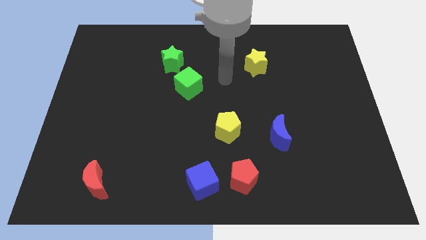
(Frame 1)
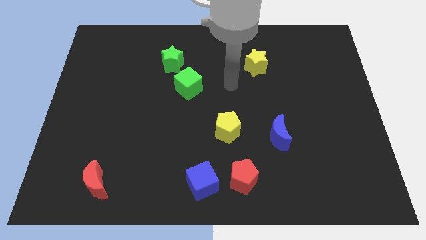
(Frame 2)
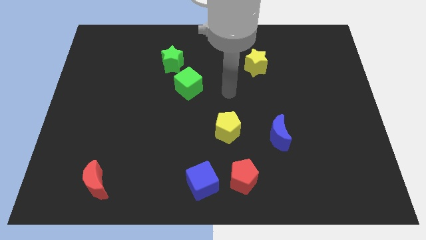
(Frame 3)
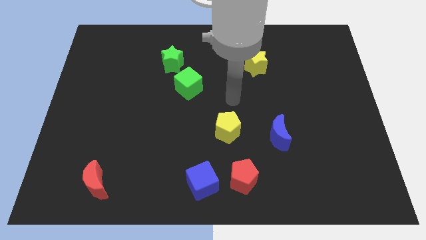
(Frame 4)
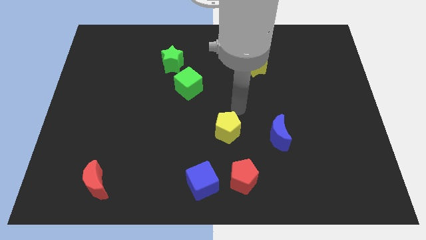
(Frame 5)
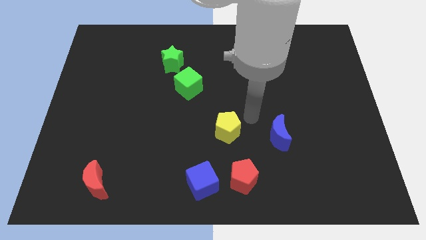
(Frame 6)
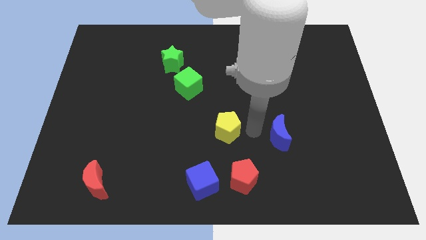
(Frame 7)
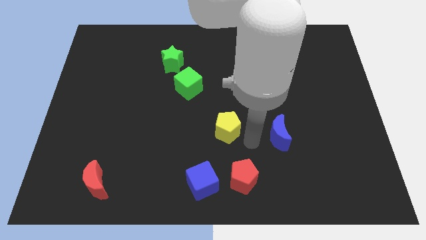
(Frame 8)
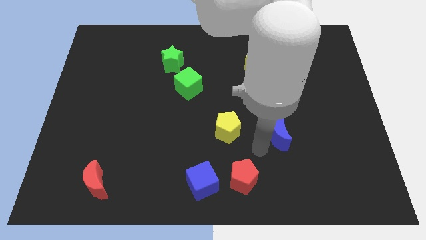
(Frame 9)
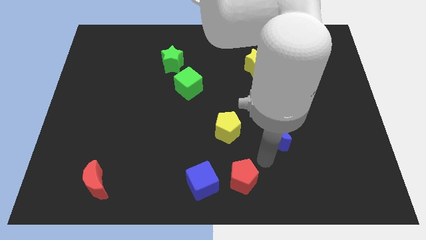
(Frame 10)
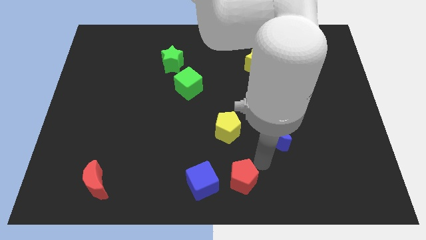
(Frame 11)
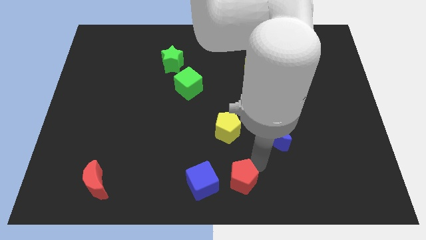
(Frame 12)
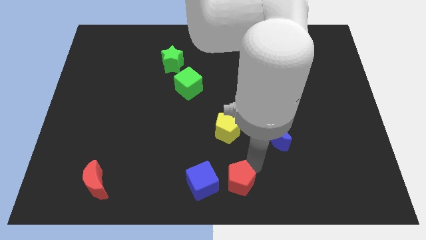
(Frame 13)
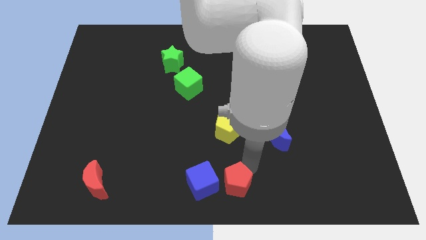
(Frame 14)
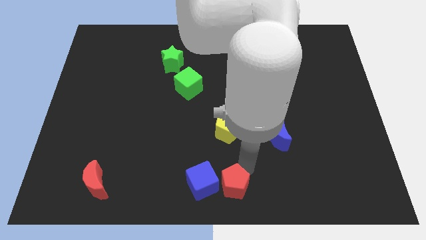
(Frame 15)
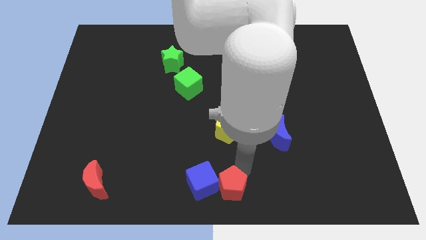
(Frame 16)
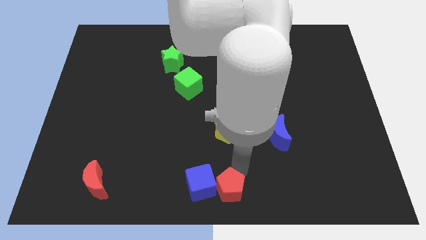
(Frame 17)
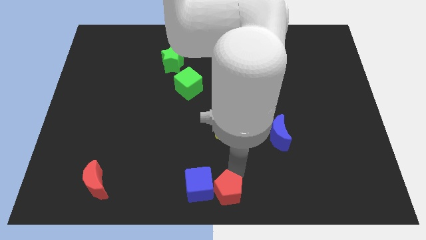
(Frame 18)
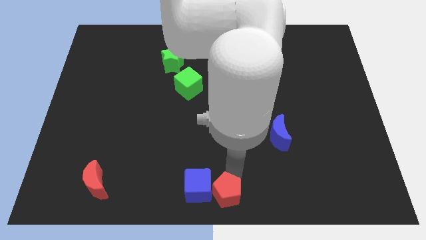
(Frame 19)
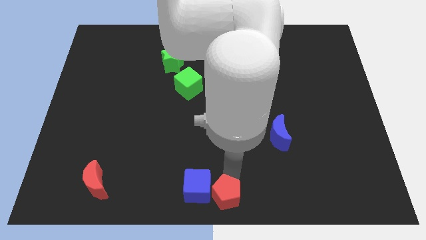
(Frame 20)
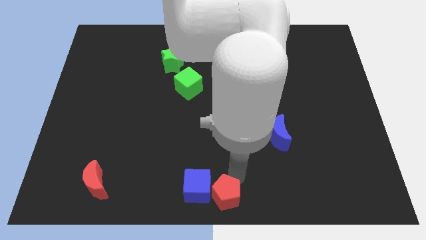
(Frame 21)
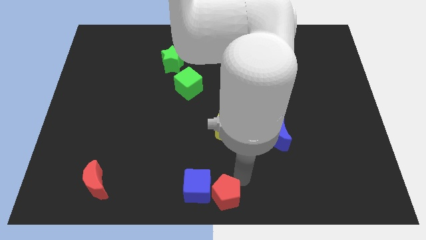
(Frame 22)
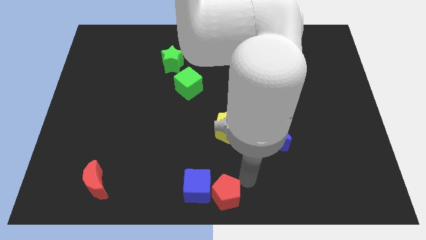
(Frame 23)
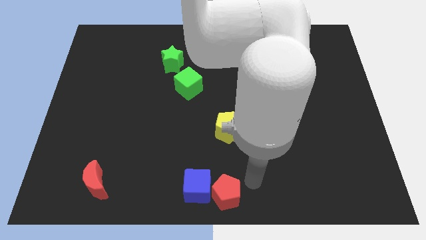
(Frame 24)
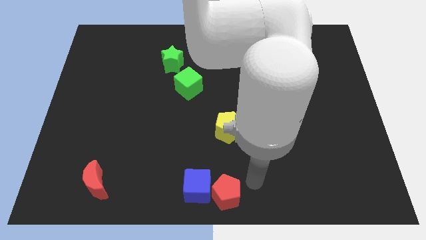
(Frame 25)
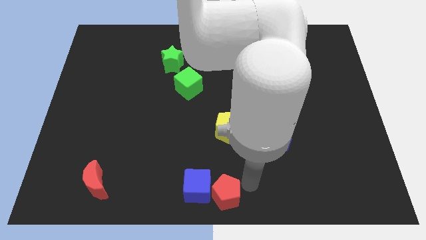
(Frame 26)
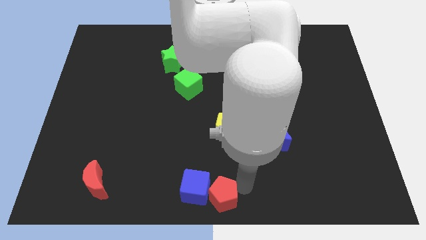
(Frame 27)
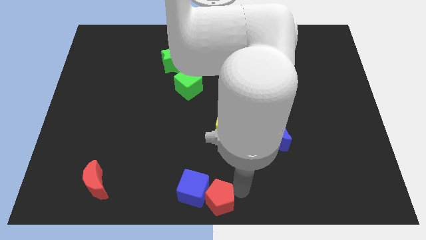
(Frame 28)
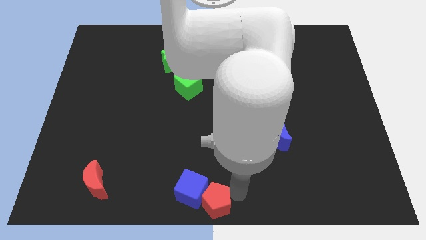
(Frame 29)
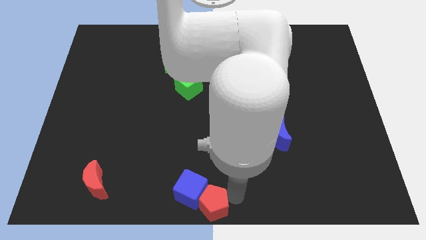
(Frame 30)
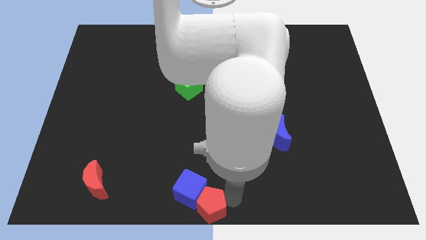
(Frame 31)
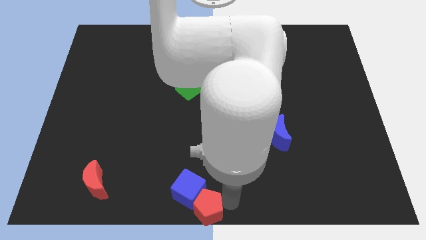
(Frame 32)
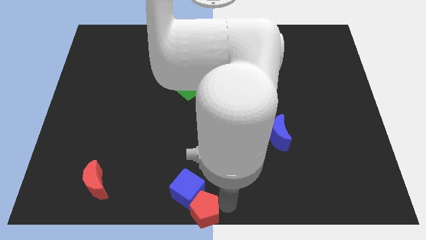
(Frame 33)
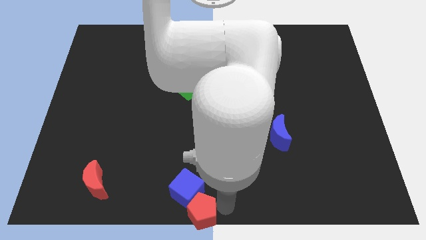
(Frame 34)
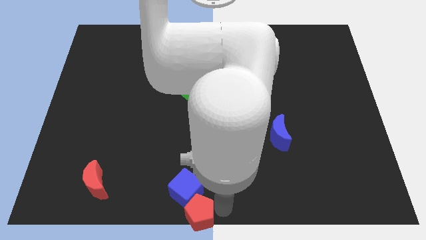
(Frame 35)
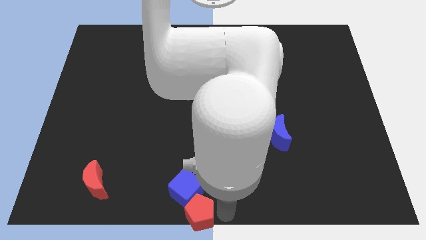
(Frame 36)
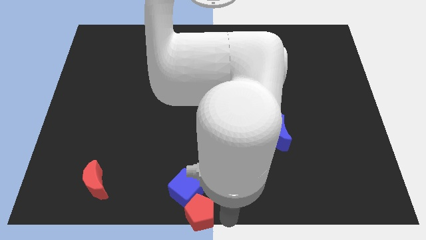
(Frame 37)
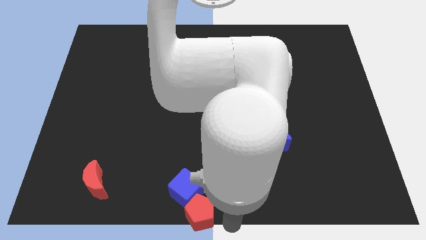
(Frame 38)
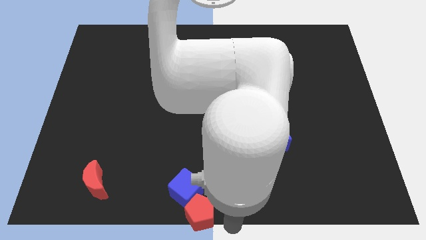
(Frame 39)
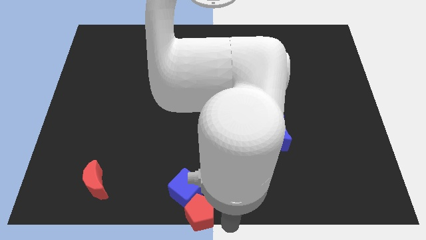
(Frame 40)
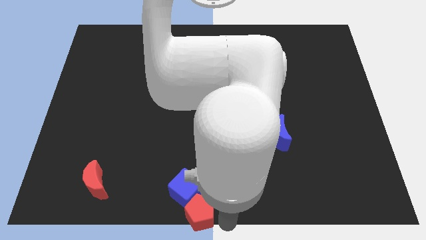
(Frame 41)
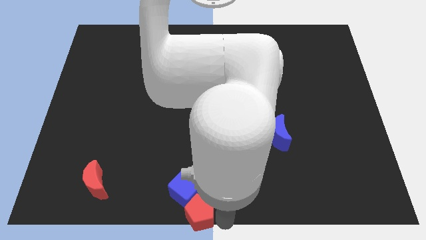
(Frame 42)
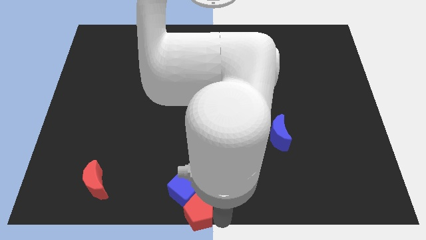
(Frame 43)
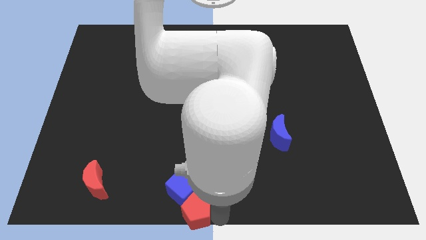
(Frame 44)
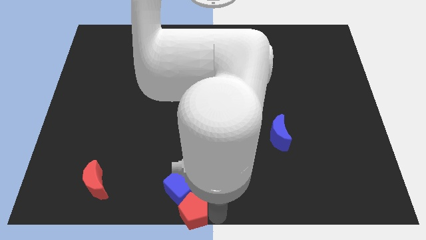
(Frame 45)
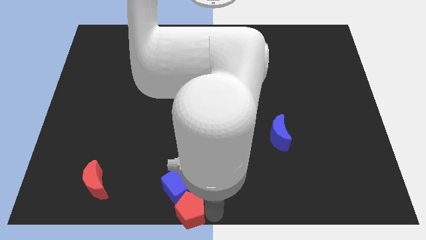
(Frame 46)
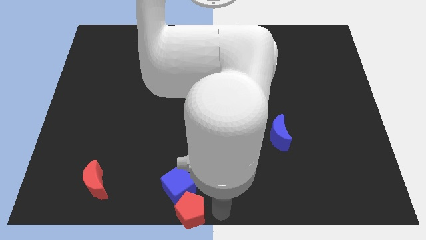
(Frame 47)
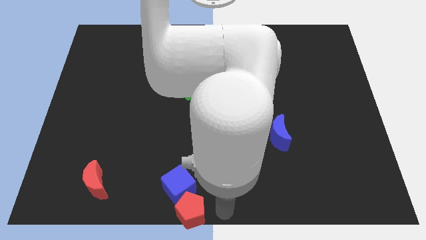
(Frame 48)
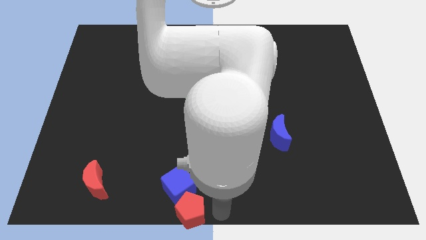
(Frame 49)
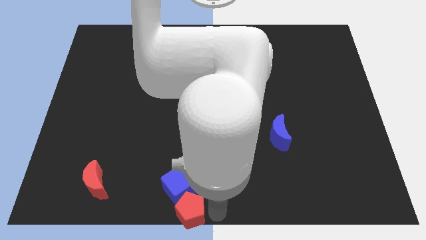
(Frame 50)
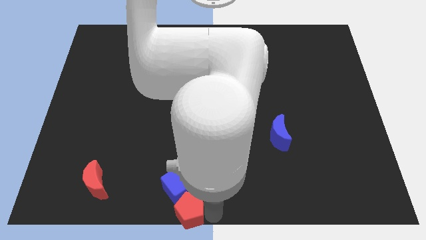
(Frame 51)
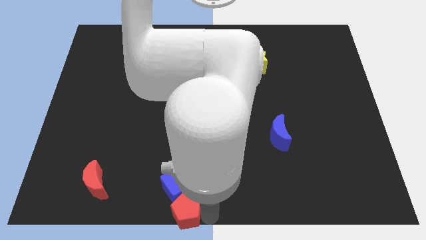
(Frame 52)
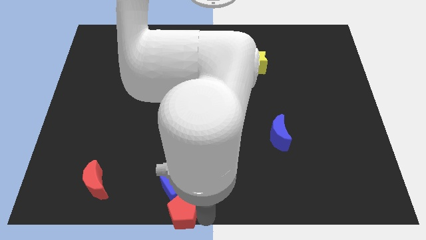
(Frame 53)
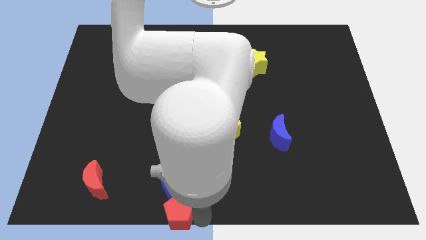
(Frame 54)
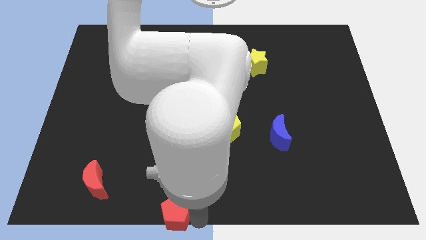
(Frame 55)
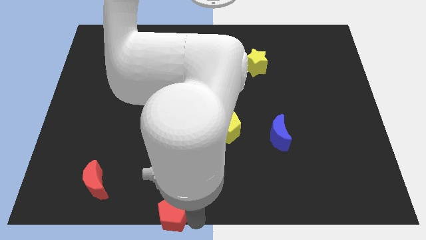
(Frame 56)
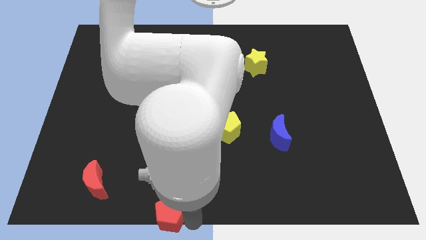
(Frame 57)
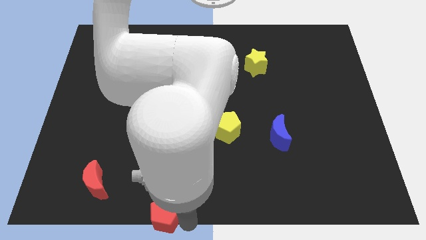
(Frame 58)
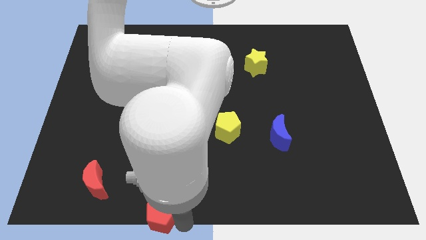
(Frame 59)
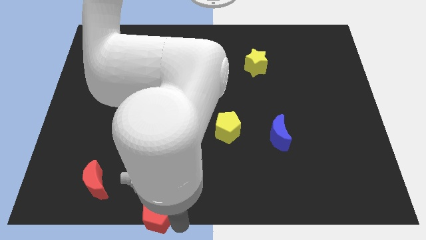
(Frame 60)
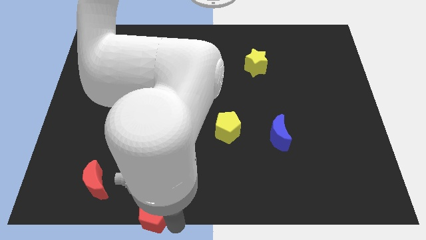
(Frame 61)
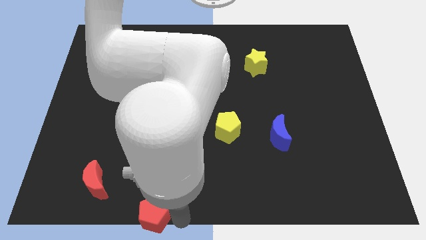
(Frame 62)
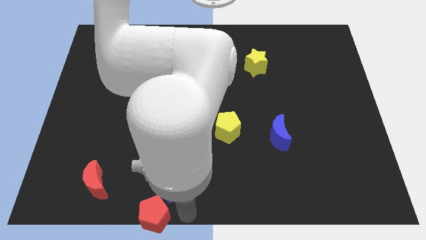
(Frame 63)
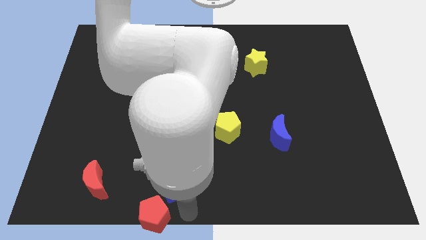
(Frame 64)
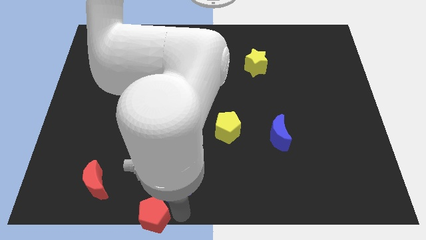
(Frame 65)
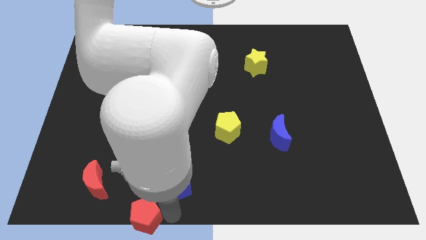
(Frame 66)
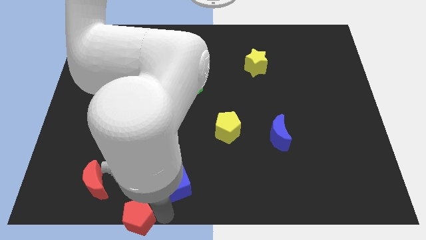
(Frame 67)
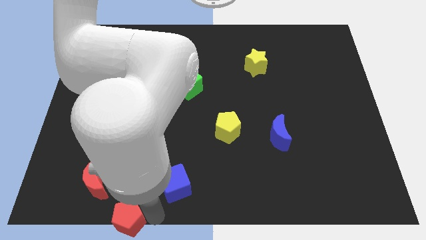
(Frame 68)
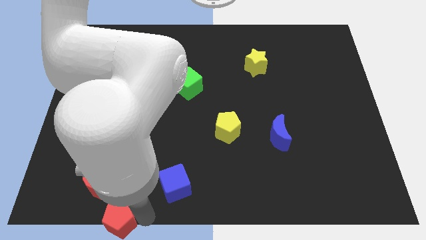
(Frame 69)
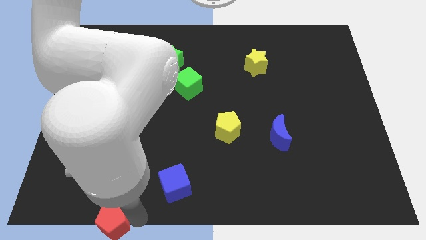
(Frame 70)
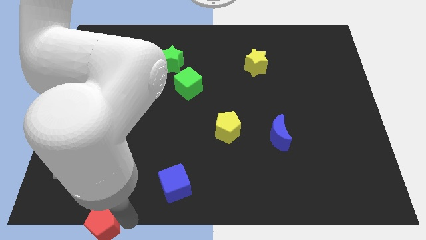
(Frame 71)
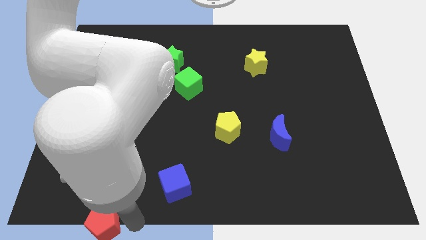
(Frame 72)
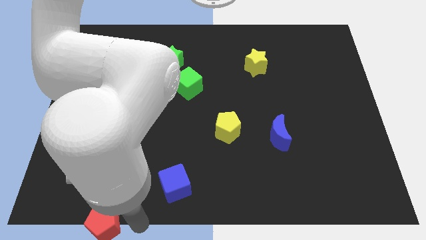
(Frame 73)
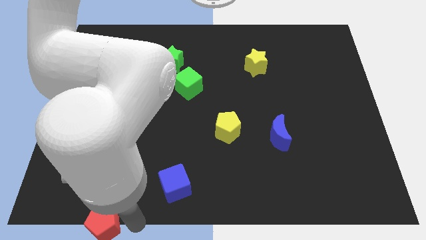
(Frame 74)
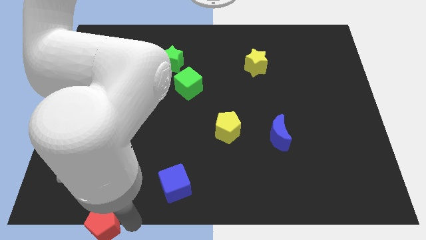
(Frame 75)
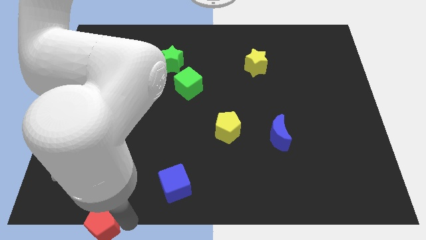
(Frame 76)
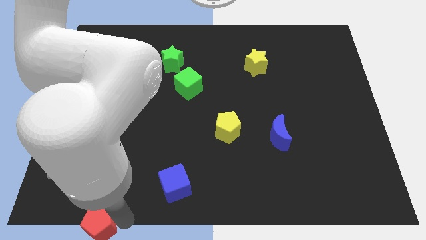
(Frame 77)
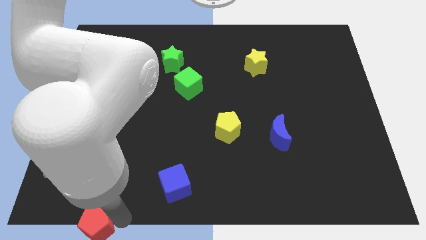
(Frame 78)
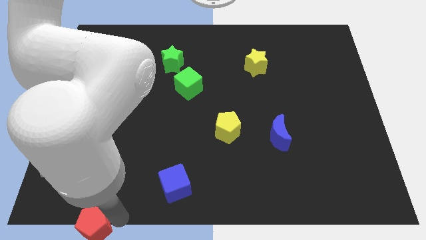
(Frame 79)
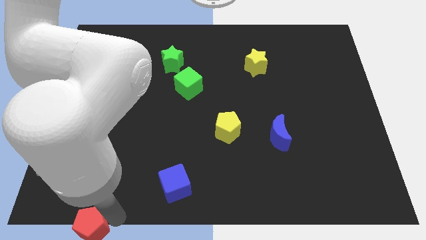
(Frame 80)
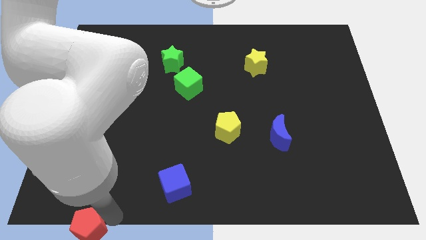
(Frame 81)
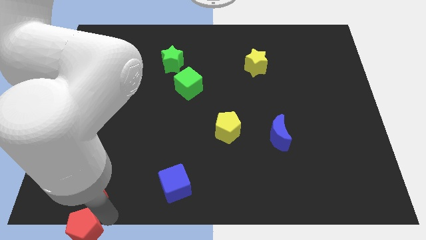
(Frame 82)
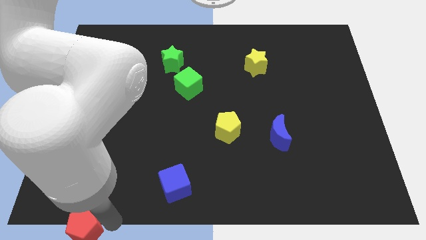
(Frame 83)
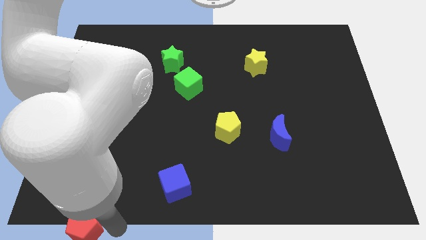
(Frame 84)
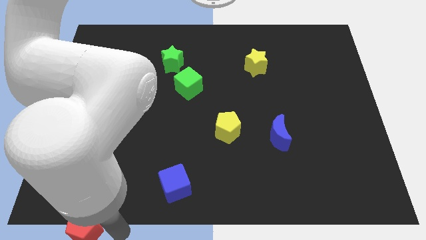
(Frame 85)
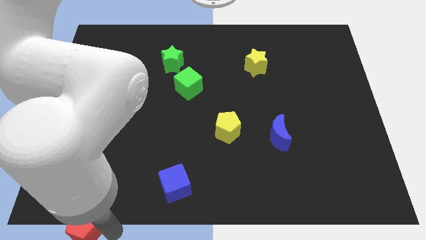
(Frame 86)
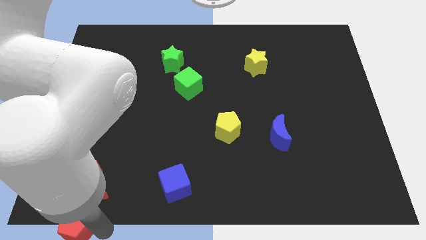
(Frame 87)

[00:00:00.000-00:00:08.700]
push the red pentagon to the lower left corner
